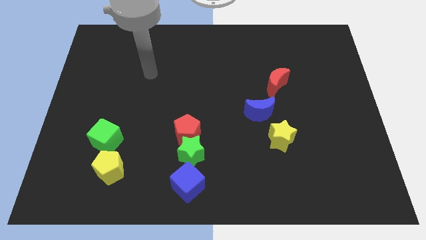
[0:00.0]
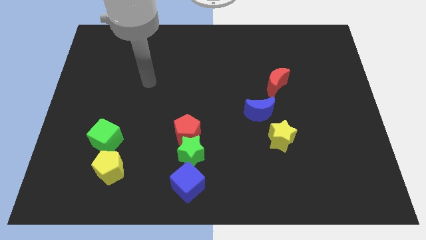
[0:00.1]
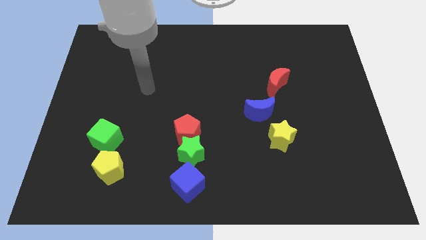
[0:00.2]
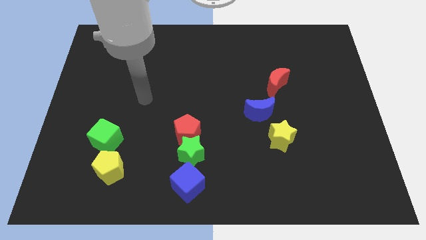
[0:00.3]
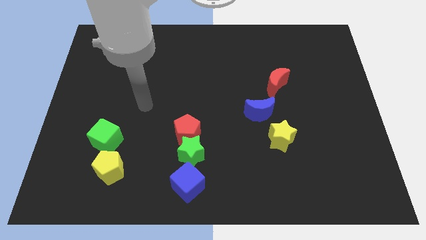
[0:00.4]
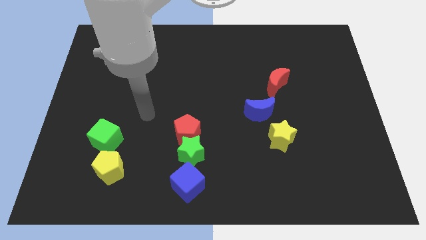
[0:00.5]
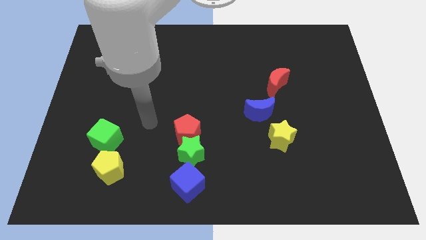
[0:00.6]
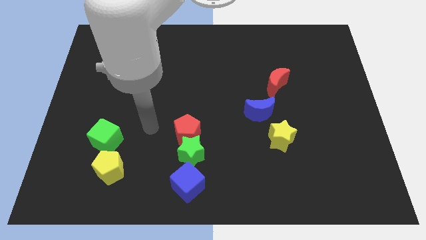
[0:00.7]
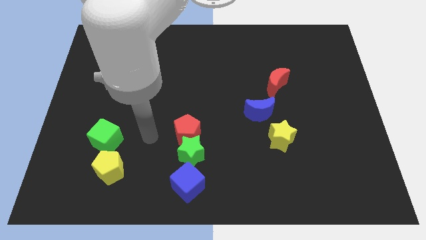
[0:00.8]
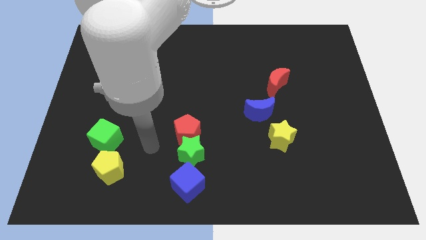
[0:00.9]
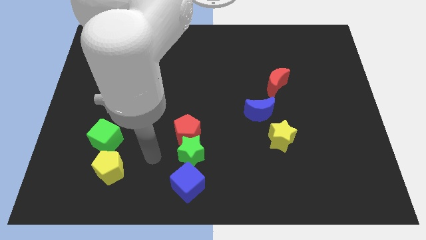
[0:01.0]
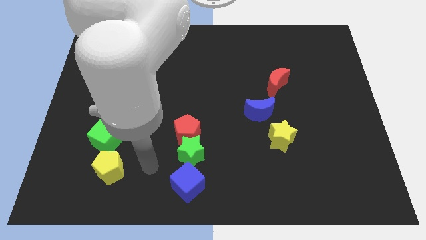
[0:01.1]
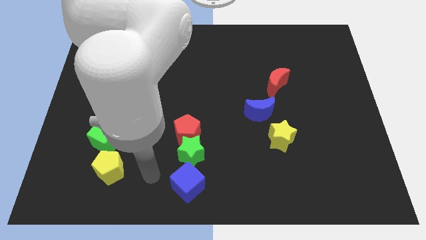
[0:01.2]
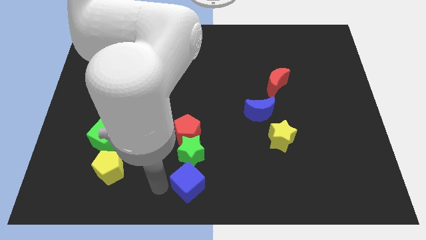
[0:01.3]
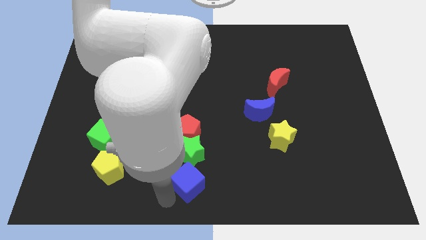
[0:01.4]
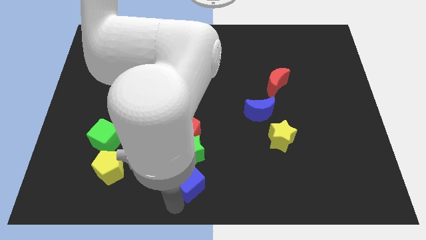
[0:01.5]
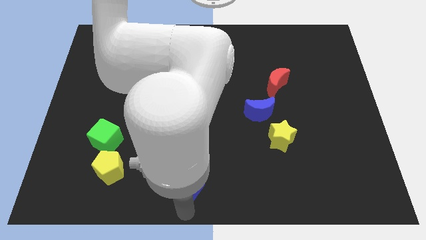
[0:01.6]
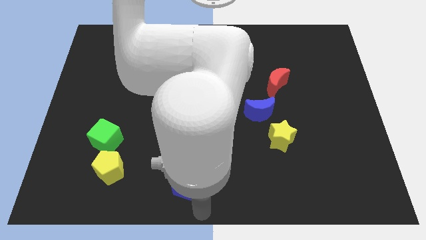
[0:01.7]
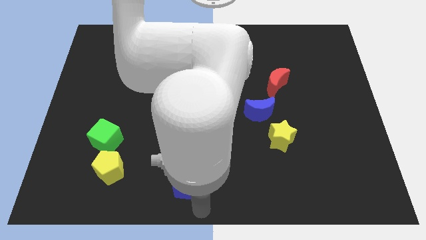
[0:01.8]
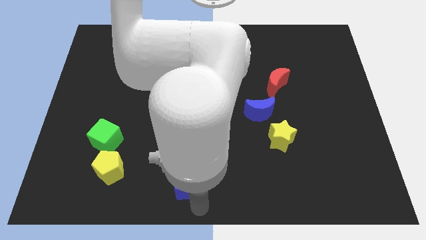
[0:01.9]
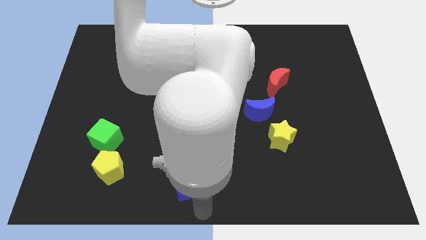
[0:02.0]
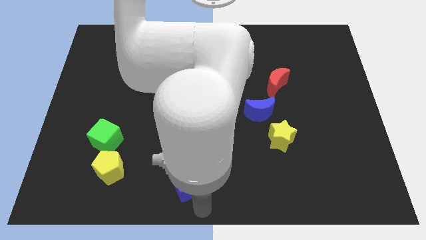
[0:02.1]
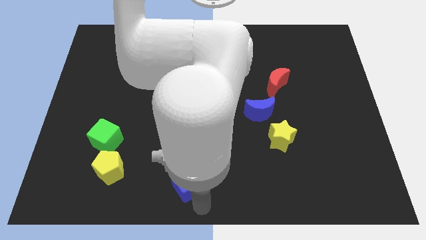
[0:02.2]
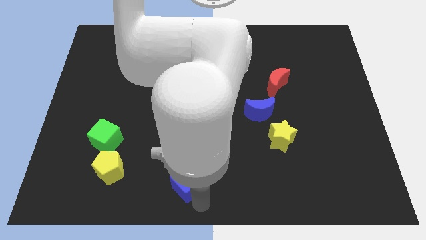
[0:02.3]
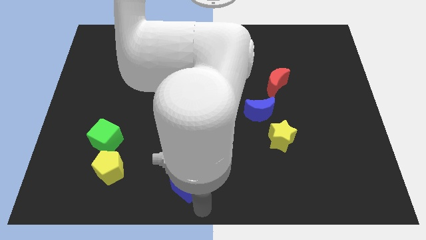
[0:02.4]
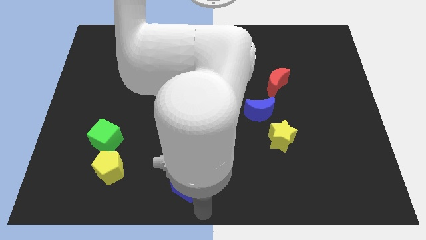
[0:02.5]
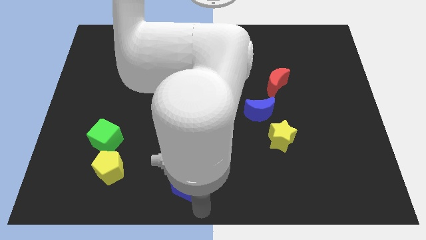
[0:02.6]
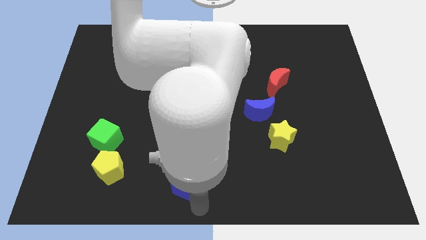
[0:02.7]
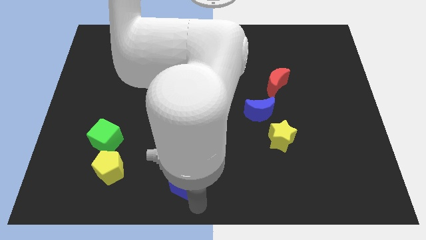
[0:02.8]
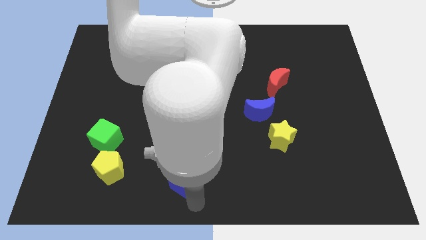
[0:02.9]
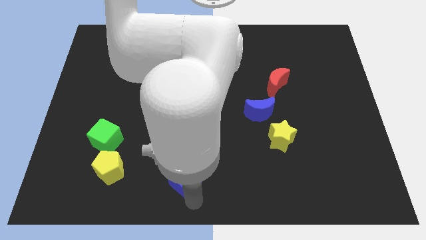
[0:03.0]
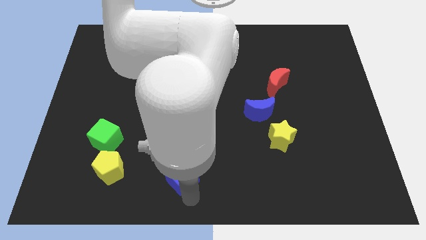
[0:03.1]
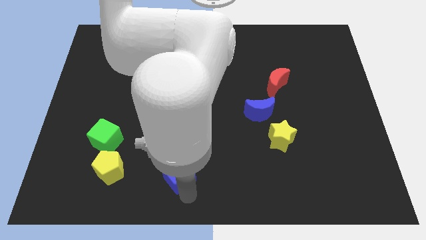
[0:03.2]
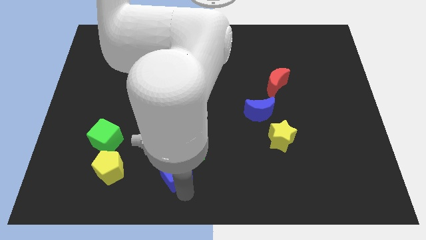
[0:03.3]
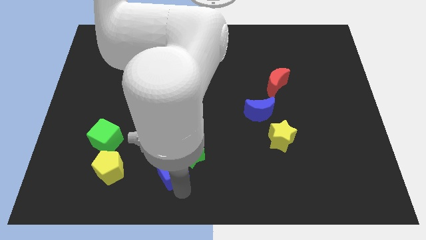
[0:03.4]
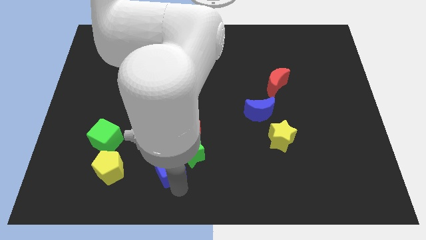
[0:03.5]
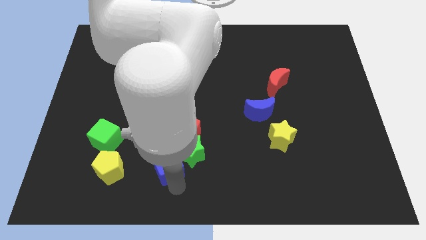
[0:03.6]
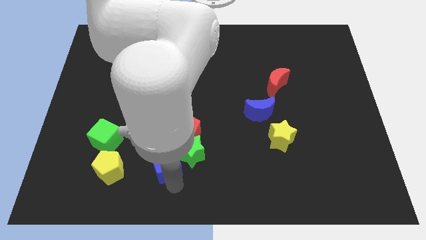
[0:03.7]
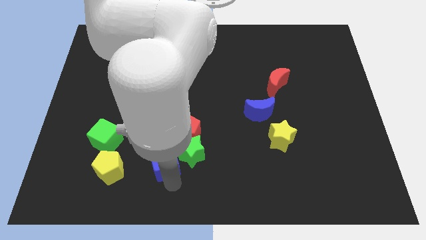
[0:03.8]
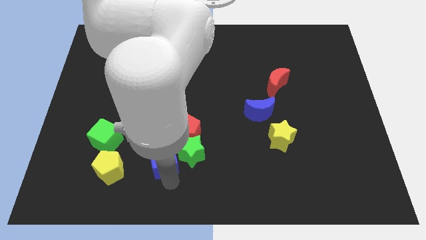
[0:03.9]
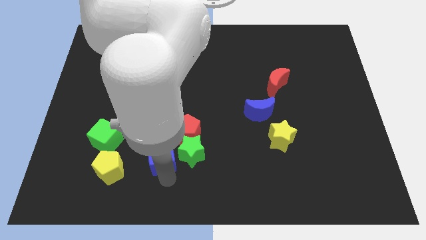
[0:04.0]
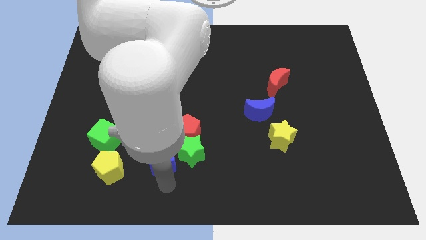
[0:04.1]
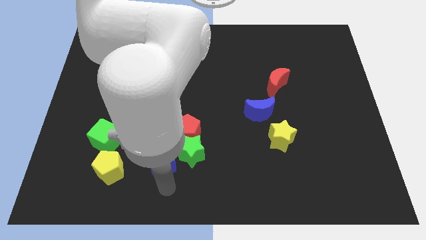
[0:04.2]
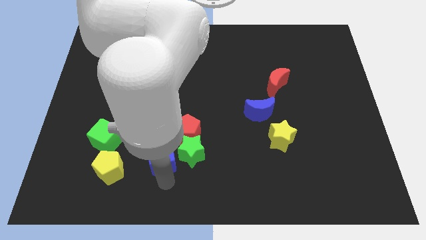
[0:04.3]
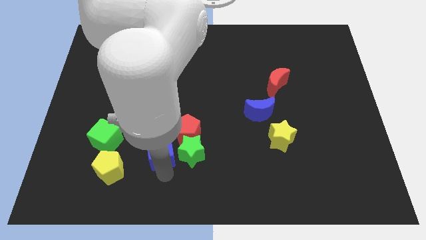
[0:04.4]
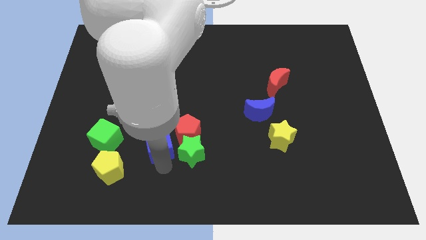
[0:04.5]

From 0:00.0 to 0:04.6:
push the blue cube slightly upwards

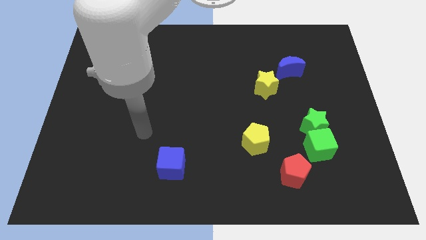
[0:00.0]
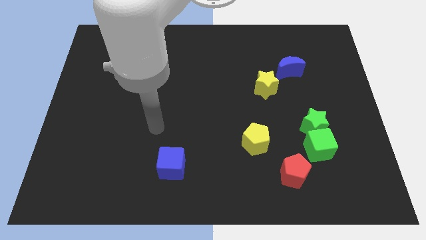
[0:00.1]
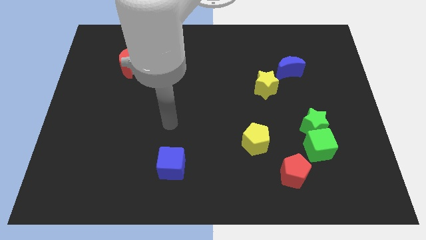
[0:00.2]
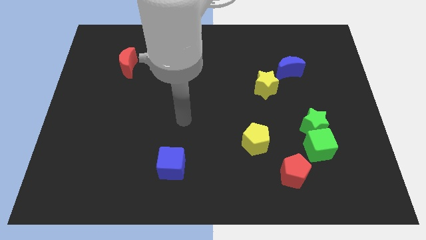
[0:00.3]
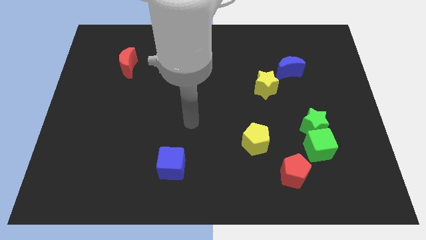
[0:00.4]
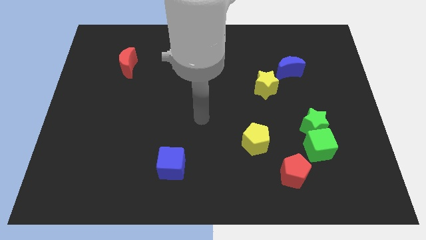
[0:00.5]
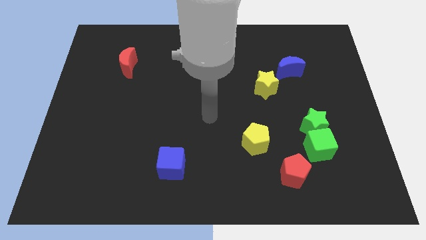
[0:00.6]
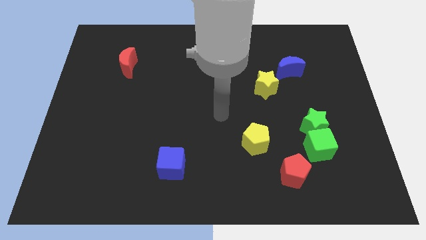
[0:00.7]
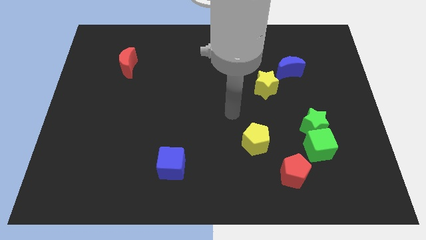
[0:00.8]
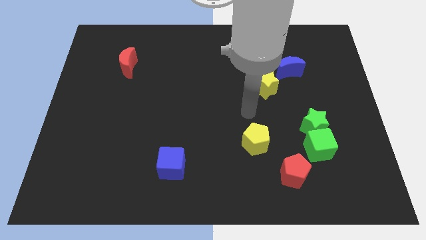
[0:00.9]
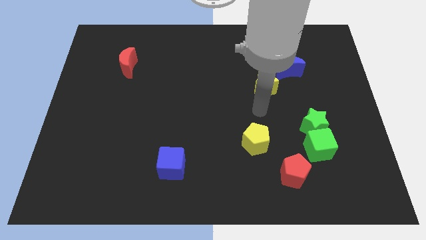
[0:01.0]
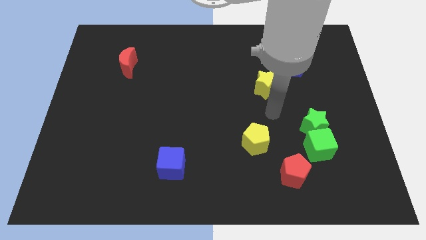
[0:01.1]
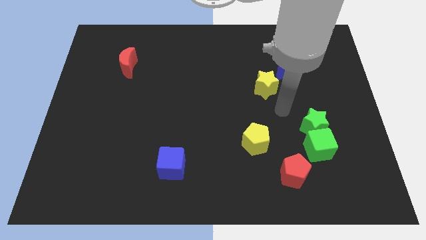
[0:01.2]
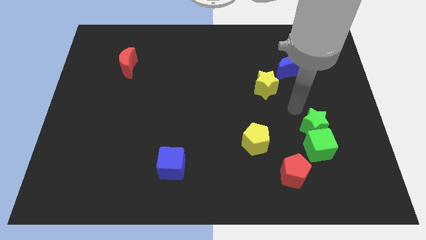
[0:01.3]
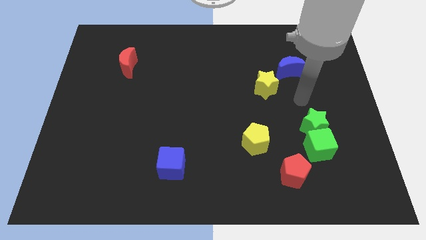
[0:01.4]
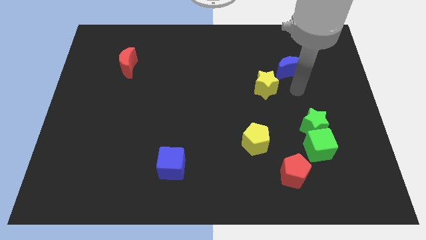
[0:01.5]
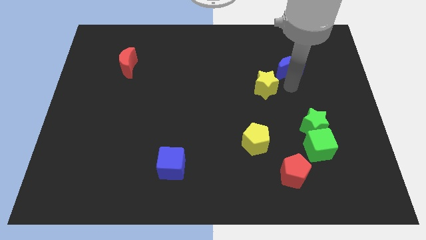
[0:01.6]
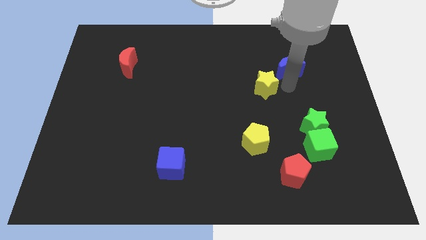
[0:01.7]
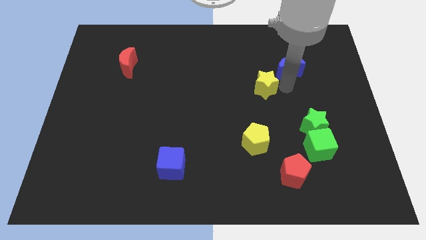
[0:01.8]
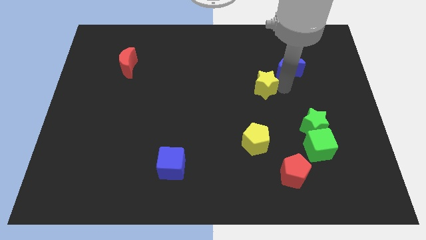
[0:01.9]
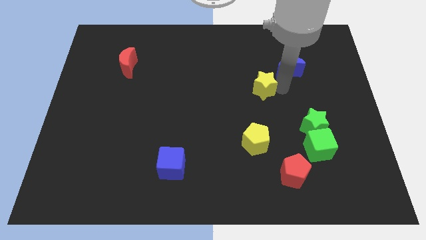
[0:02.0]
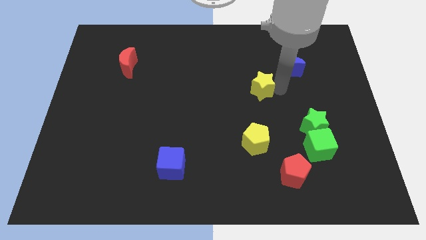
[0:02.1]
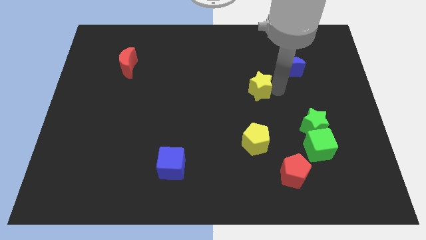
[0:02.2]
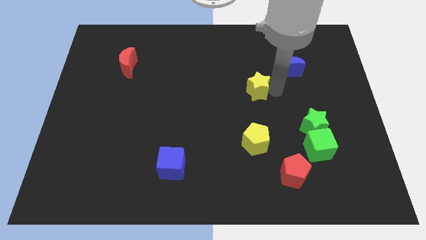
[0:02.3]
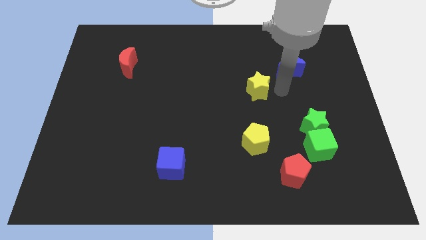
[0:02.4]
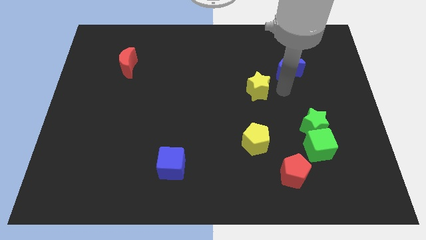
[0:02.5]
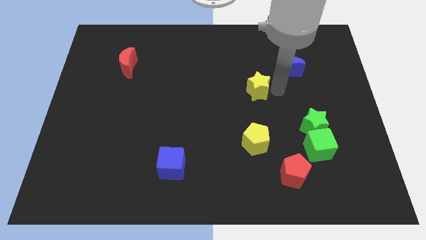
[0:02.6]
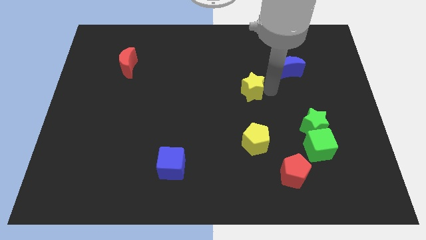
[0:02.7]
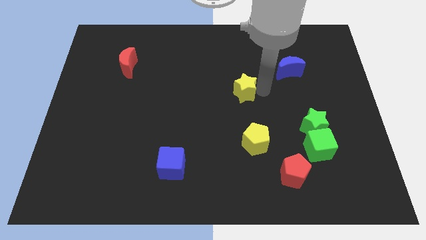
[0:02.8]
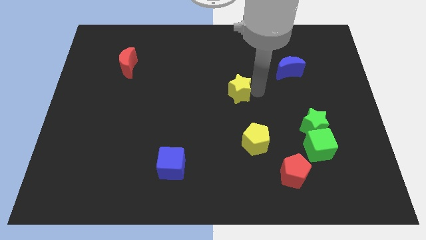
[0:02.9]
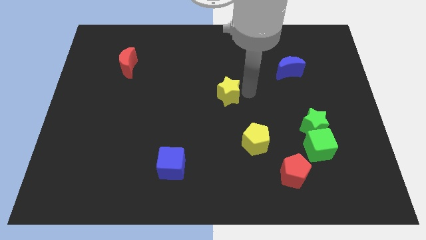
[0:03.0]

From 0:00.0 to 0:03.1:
push the yellow star to the left slightly

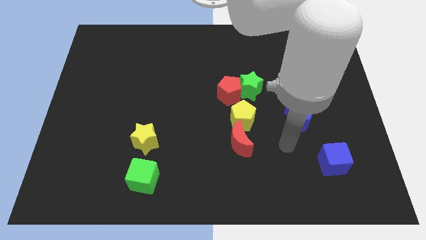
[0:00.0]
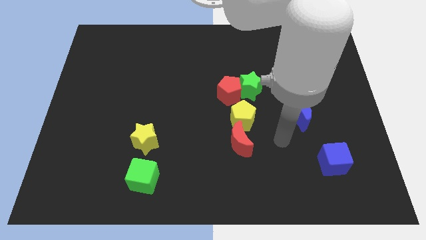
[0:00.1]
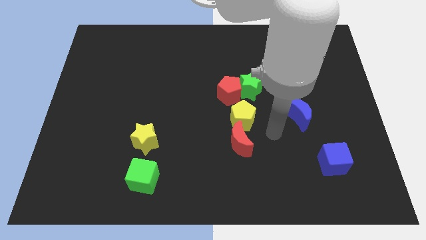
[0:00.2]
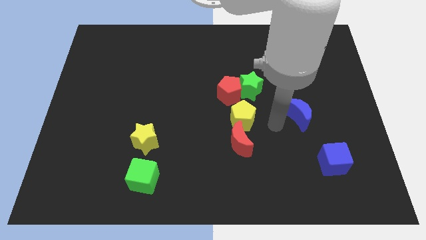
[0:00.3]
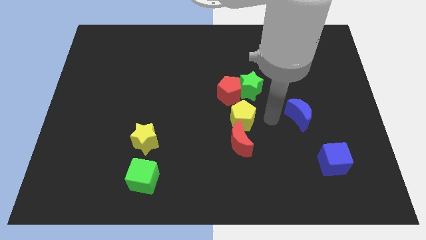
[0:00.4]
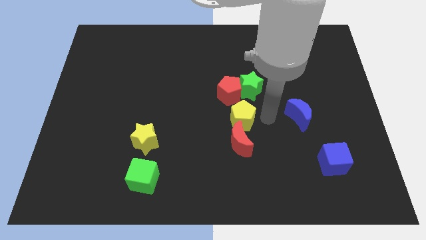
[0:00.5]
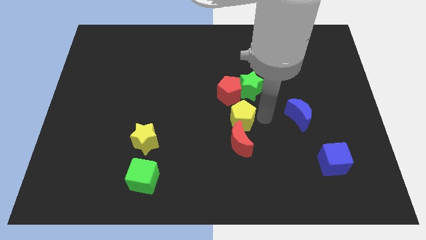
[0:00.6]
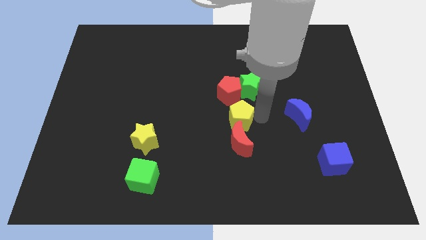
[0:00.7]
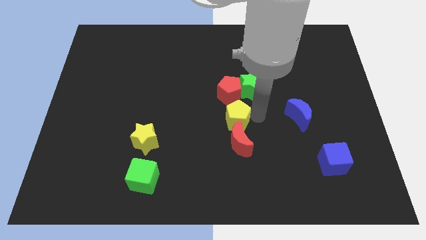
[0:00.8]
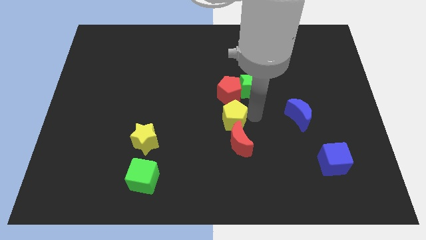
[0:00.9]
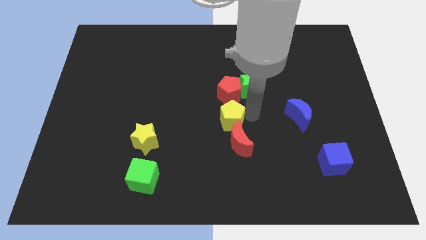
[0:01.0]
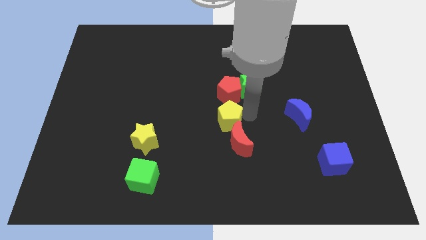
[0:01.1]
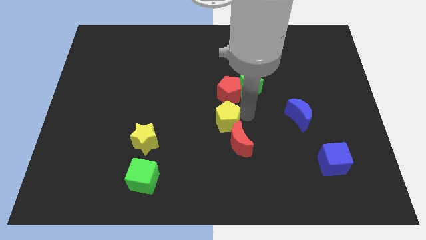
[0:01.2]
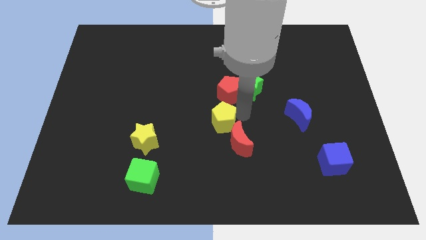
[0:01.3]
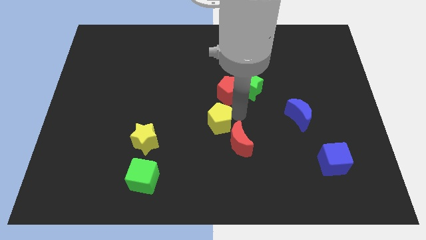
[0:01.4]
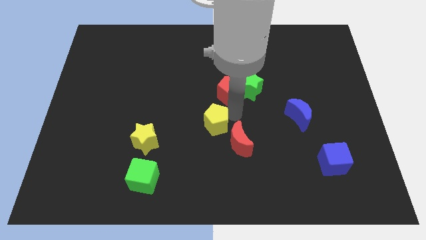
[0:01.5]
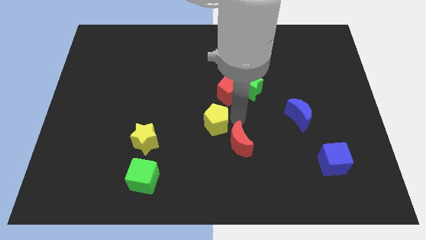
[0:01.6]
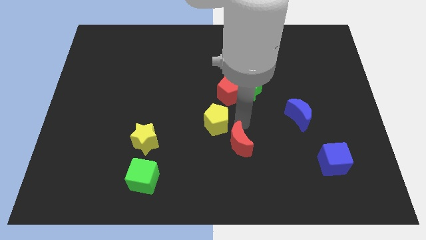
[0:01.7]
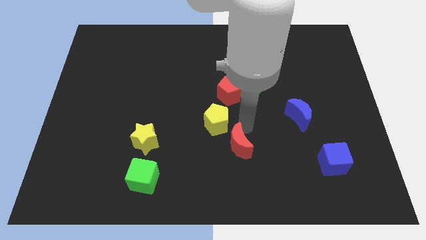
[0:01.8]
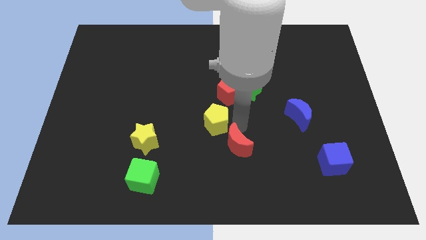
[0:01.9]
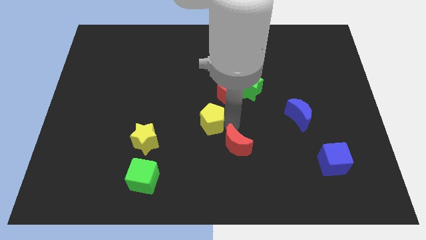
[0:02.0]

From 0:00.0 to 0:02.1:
slightly push the yellow pentagon left
